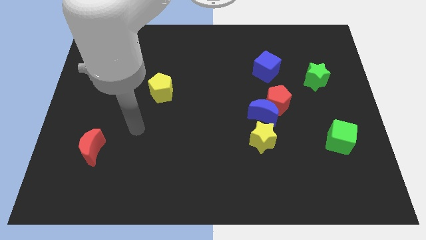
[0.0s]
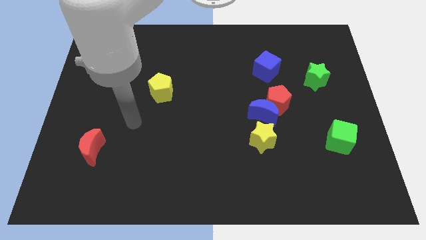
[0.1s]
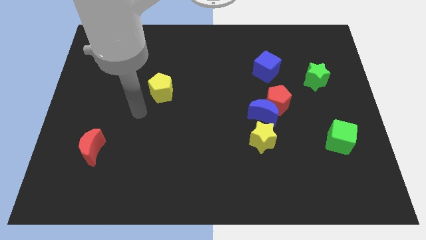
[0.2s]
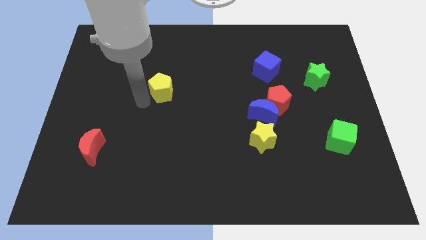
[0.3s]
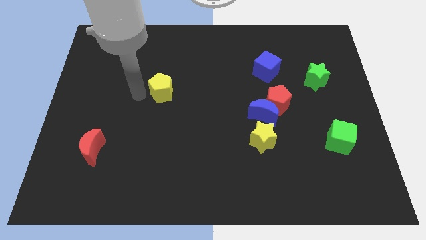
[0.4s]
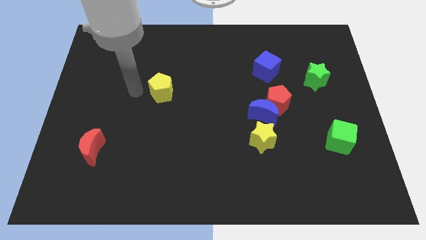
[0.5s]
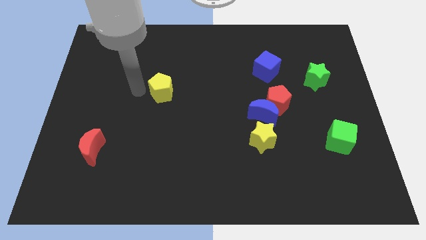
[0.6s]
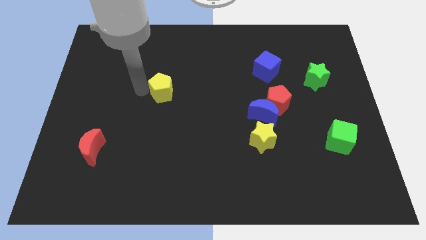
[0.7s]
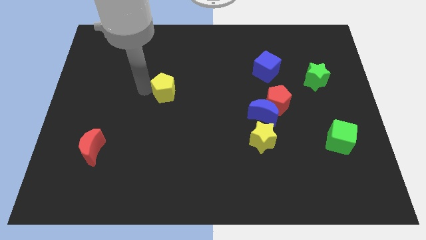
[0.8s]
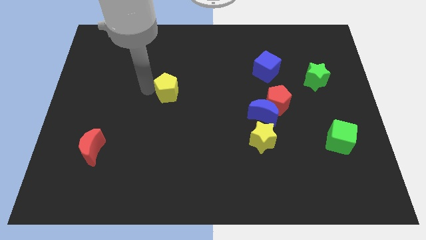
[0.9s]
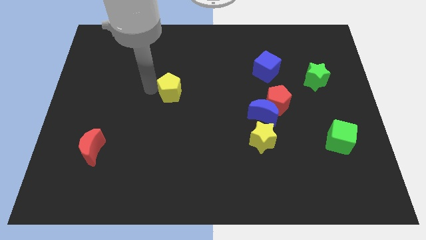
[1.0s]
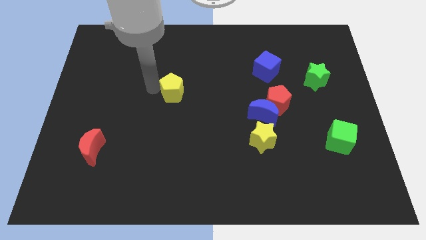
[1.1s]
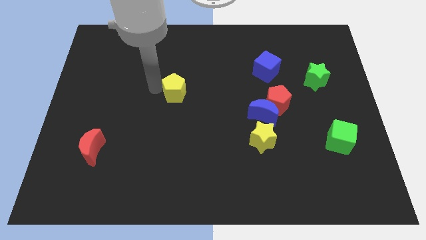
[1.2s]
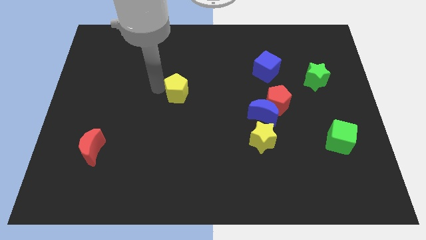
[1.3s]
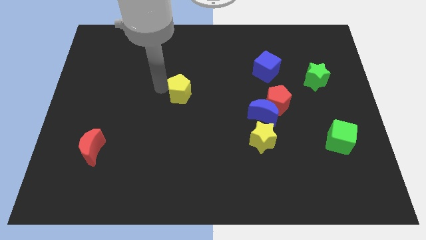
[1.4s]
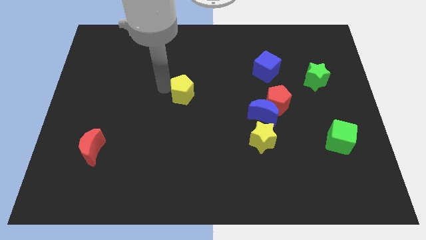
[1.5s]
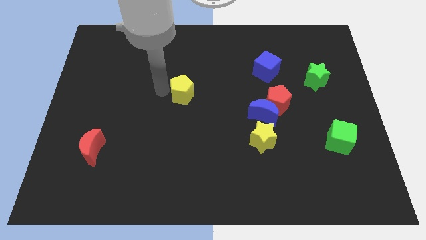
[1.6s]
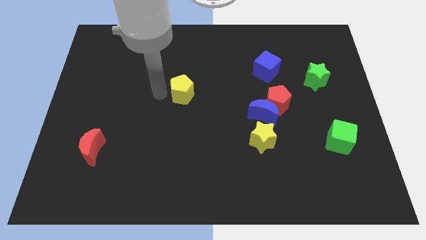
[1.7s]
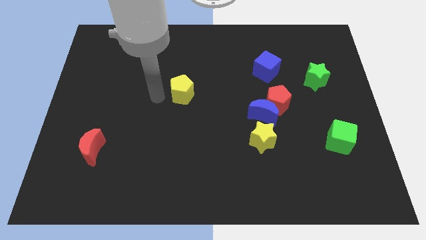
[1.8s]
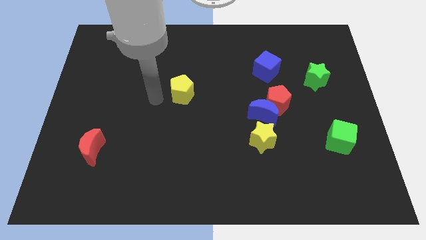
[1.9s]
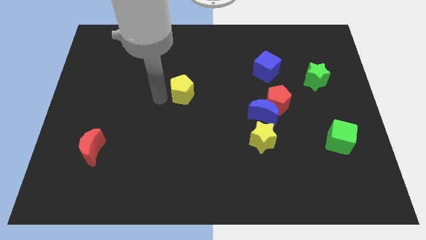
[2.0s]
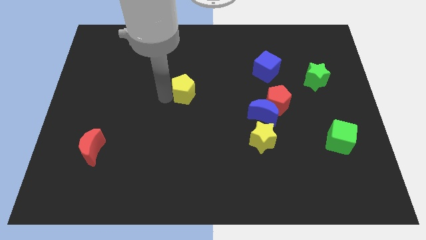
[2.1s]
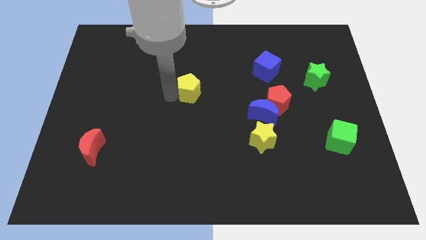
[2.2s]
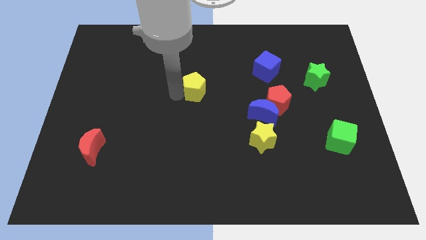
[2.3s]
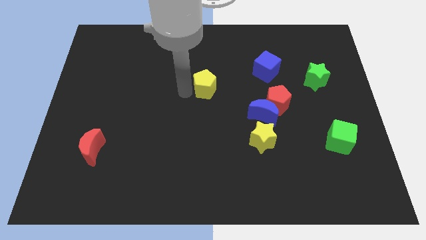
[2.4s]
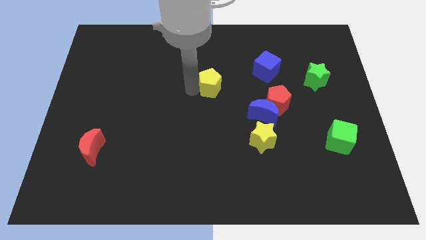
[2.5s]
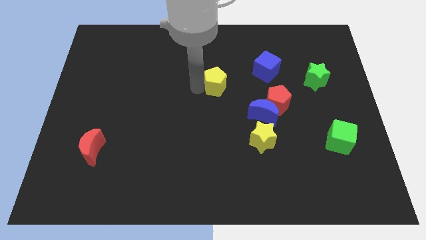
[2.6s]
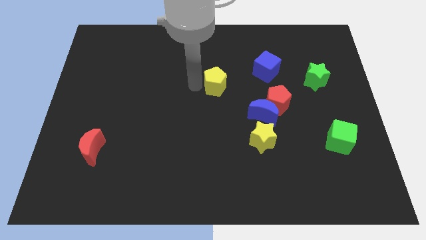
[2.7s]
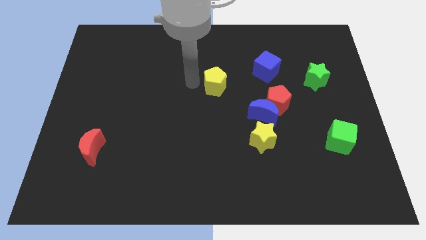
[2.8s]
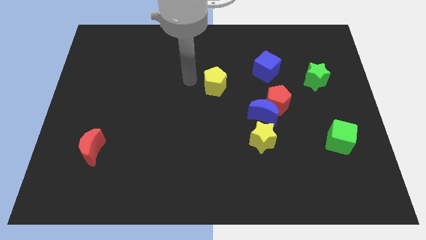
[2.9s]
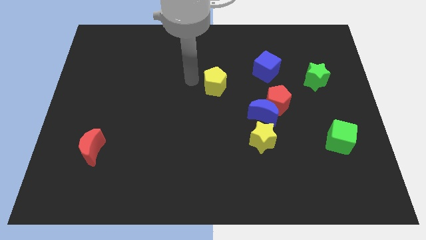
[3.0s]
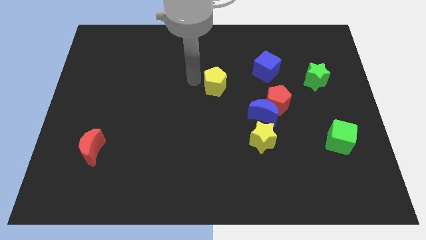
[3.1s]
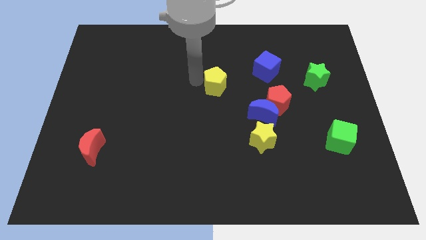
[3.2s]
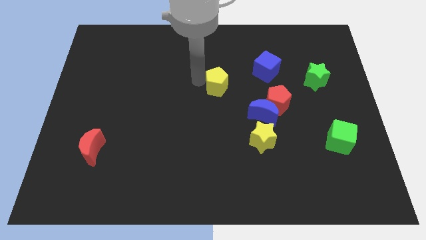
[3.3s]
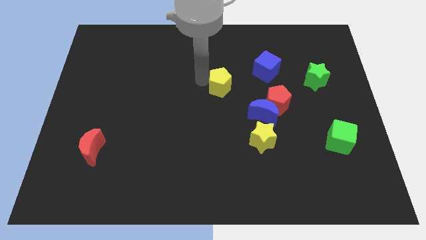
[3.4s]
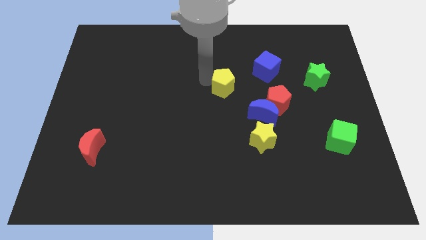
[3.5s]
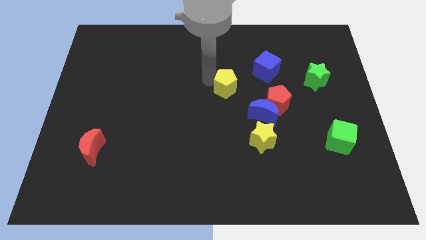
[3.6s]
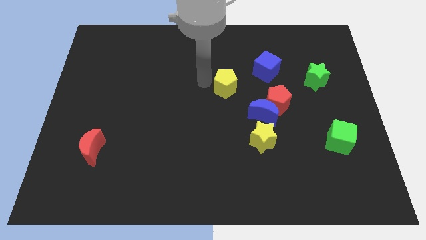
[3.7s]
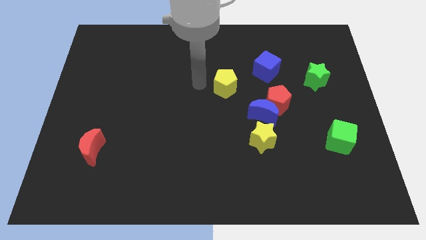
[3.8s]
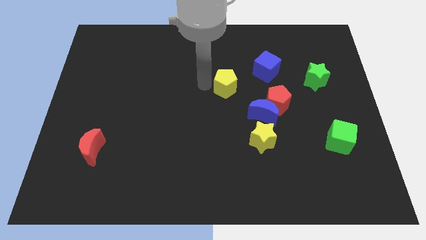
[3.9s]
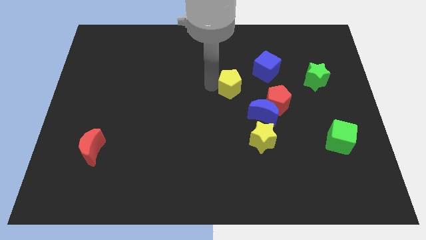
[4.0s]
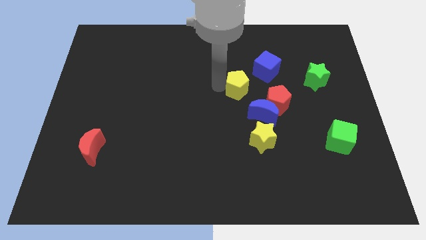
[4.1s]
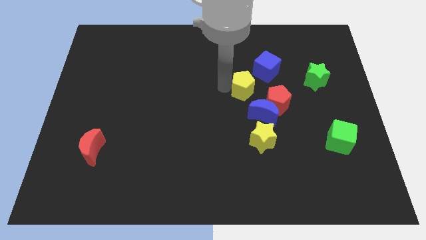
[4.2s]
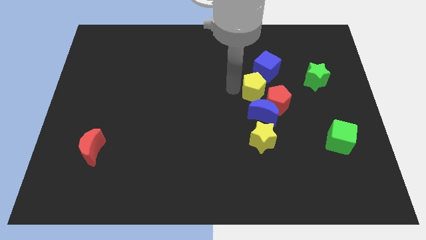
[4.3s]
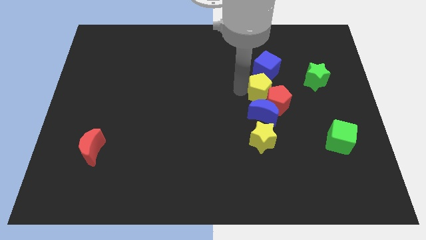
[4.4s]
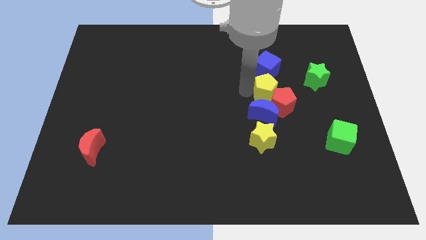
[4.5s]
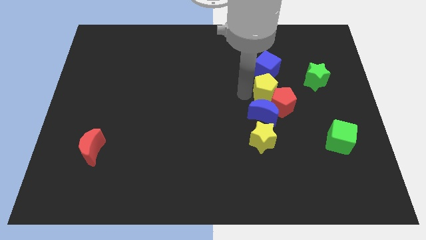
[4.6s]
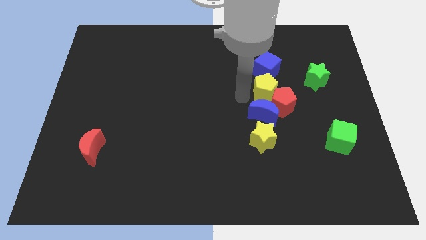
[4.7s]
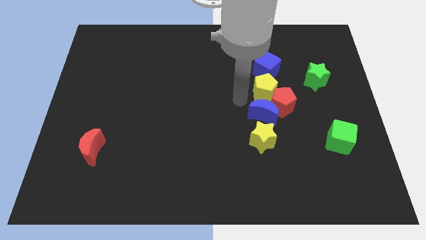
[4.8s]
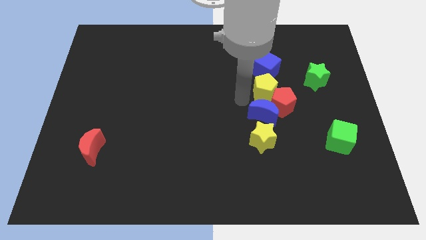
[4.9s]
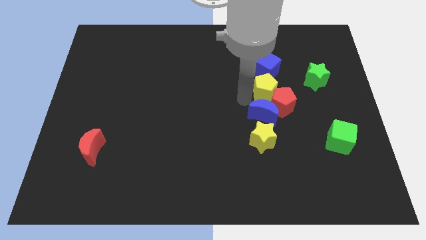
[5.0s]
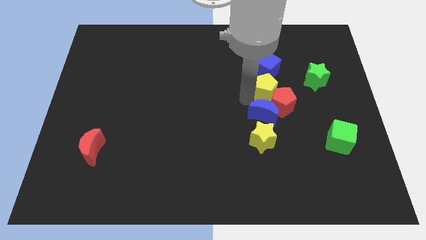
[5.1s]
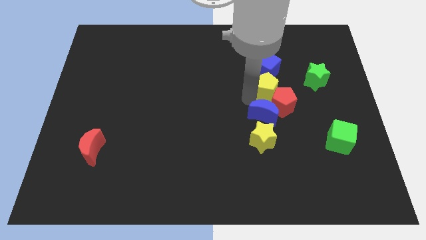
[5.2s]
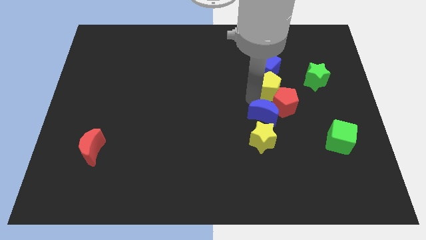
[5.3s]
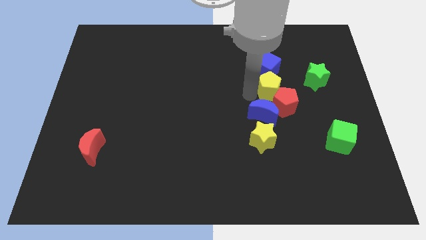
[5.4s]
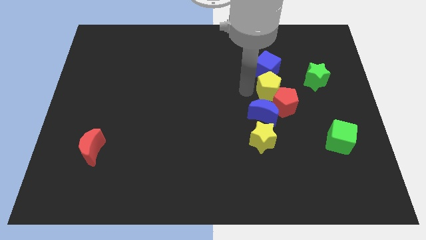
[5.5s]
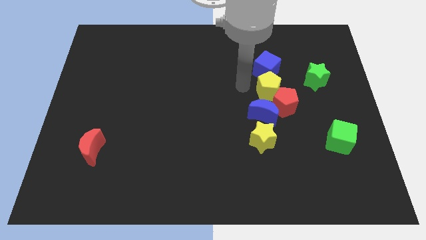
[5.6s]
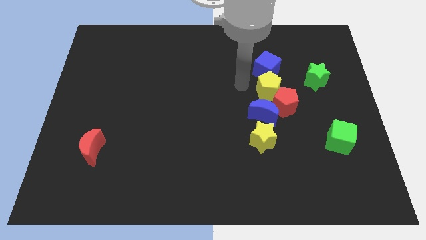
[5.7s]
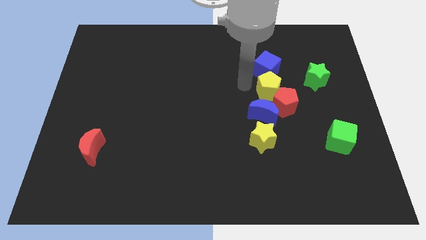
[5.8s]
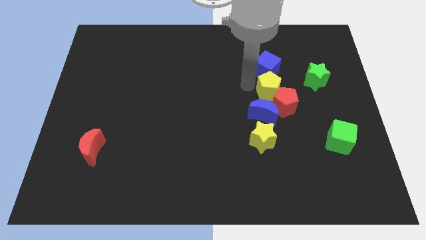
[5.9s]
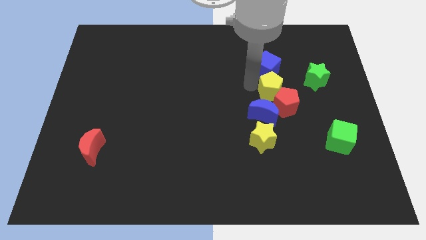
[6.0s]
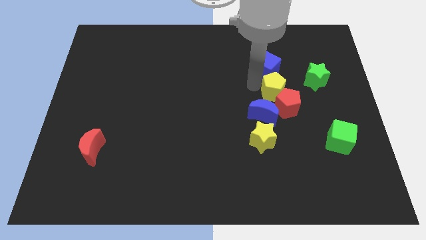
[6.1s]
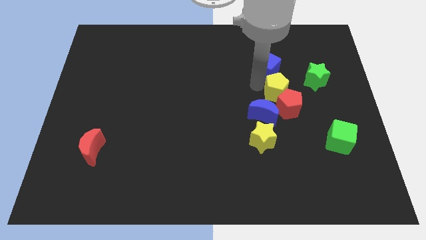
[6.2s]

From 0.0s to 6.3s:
move the yellow pentagon diagonally down and to the left of the green star

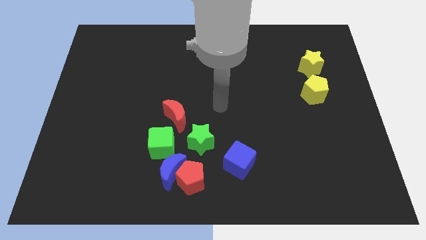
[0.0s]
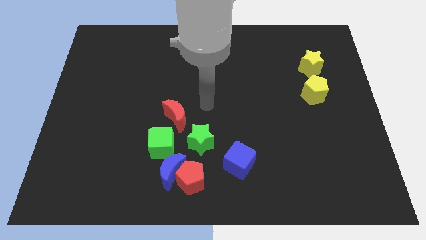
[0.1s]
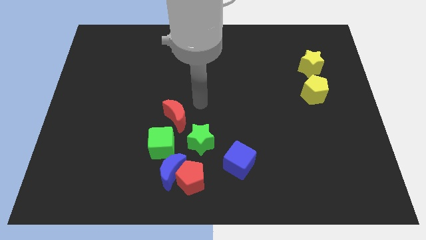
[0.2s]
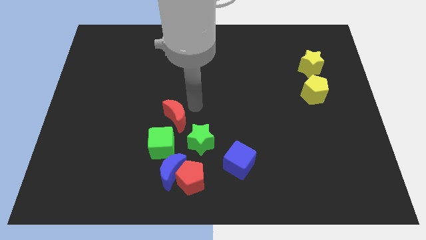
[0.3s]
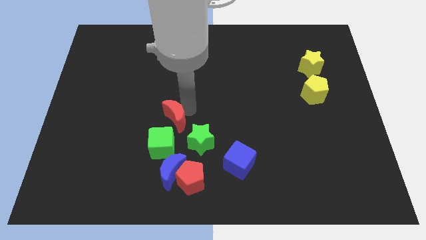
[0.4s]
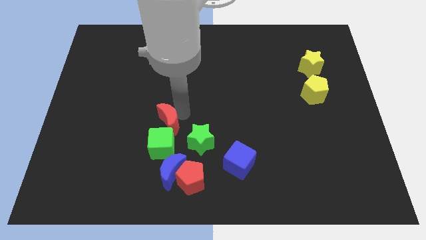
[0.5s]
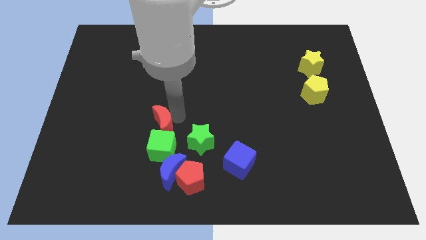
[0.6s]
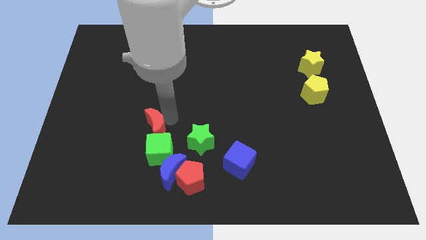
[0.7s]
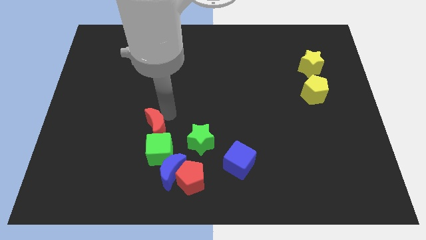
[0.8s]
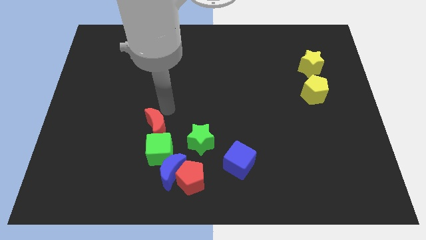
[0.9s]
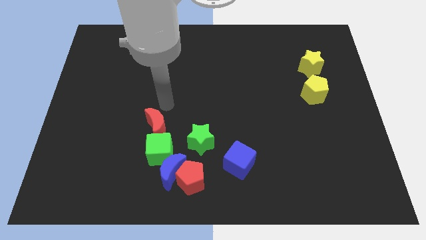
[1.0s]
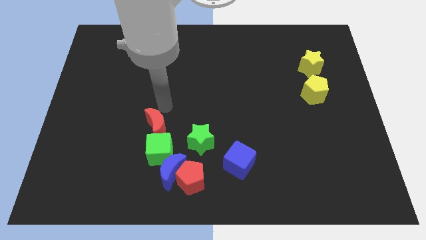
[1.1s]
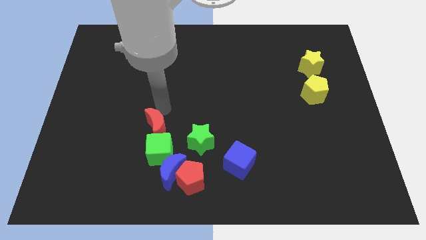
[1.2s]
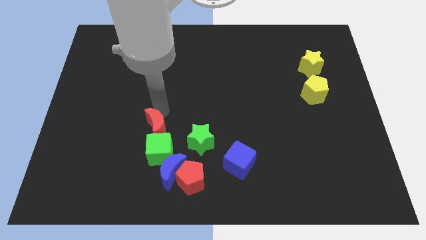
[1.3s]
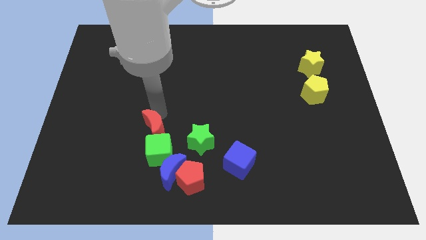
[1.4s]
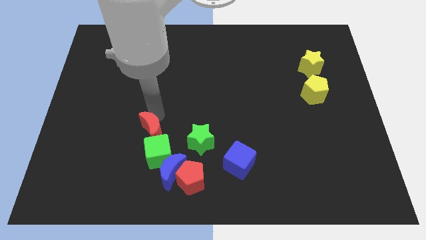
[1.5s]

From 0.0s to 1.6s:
put the red moon to the top left side of the blue moon
